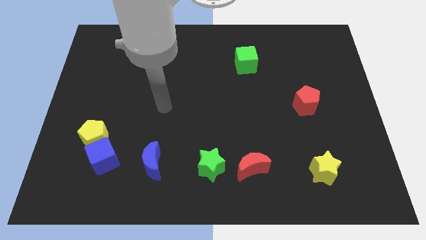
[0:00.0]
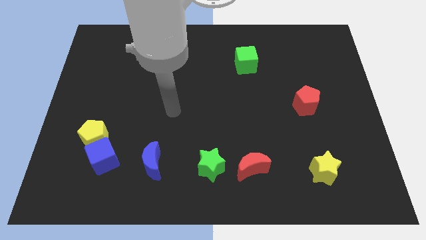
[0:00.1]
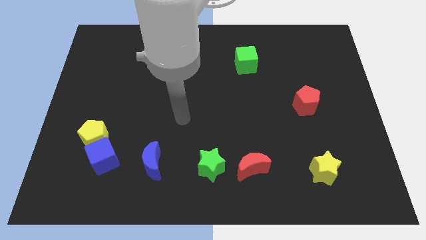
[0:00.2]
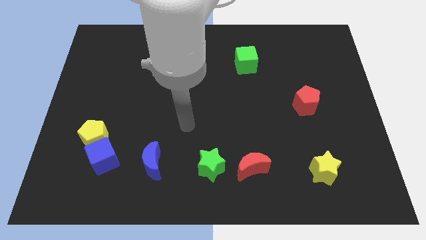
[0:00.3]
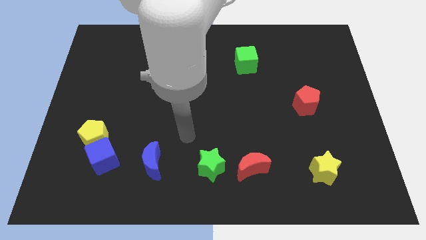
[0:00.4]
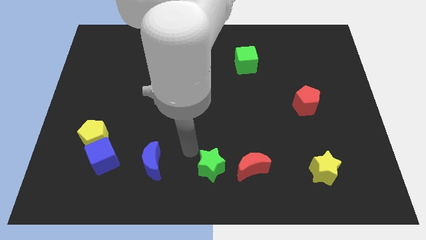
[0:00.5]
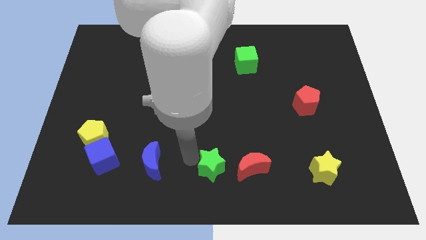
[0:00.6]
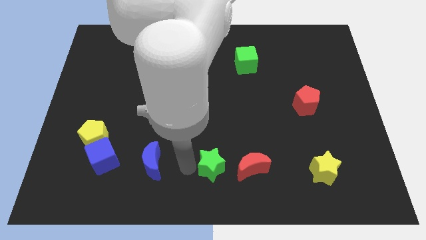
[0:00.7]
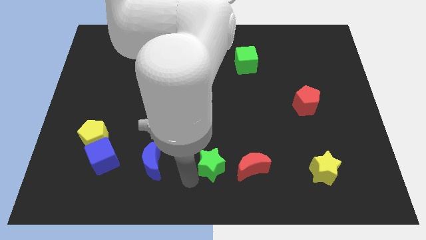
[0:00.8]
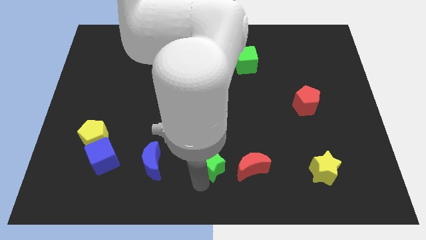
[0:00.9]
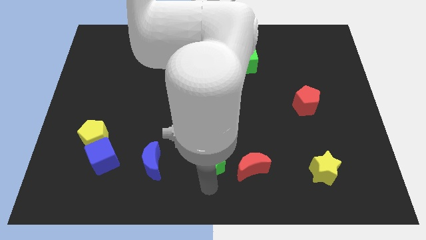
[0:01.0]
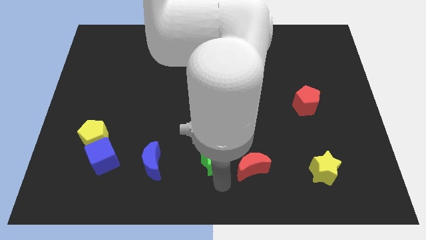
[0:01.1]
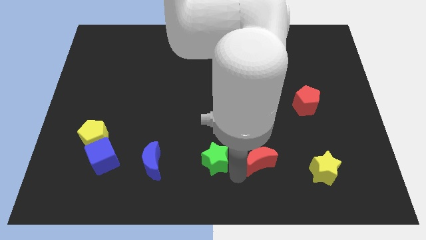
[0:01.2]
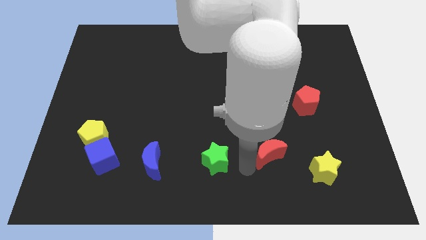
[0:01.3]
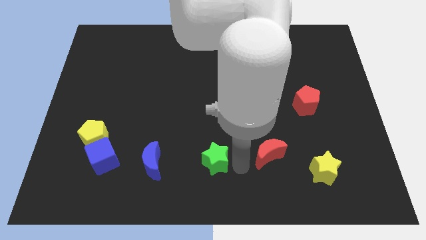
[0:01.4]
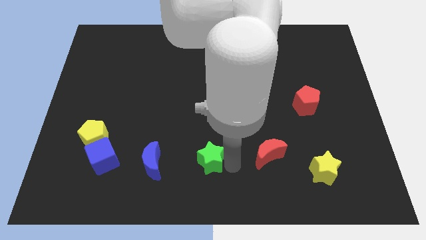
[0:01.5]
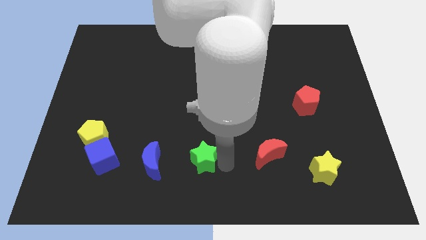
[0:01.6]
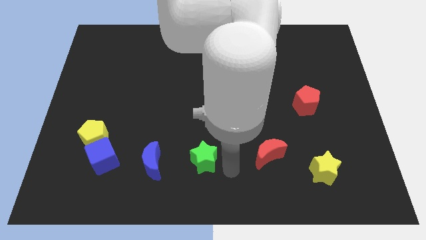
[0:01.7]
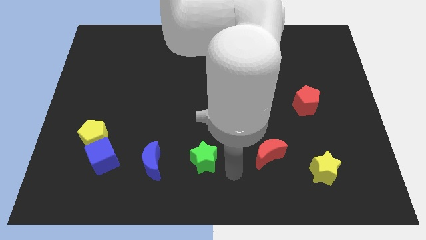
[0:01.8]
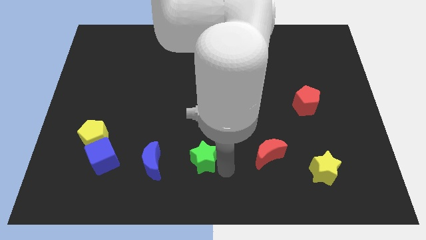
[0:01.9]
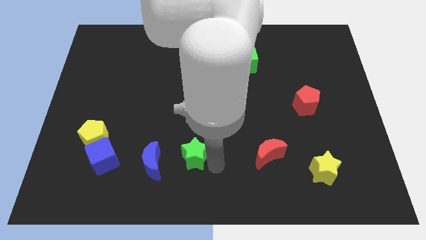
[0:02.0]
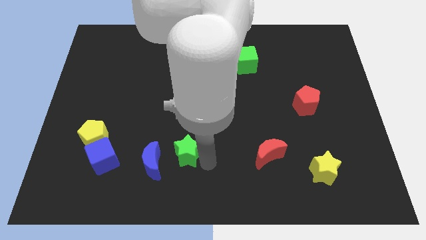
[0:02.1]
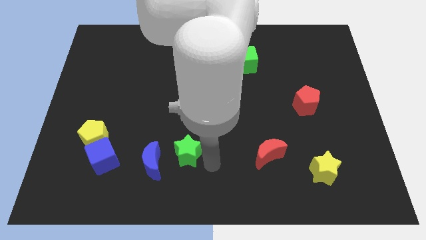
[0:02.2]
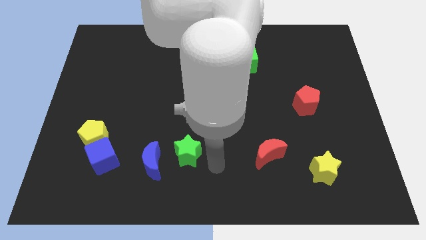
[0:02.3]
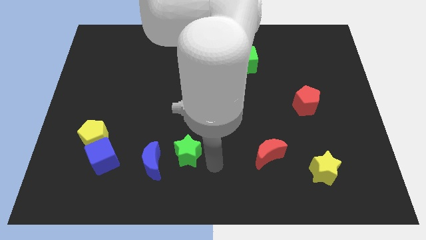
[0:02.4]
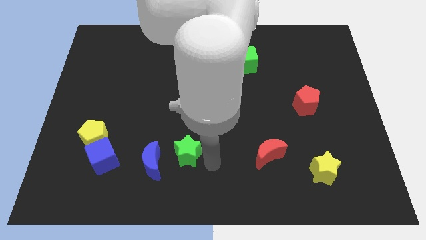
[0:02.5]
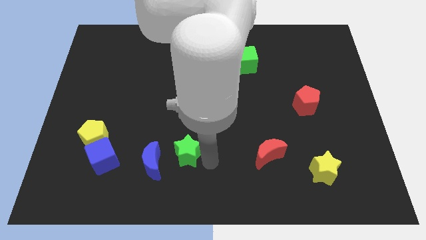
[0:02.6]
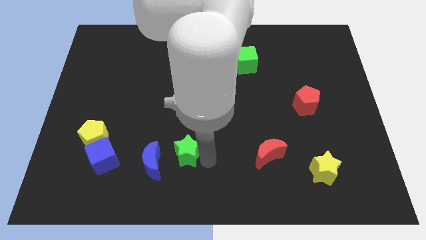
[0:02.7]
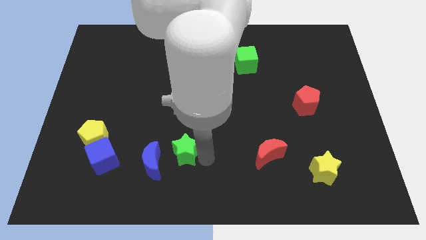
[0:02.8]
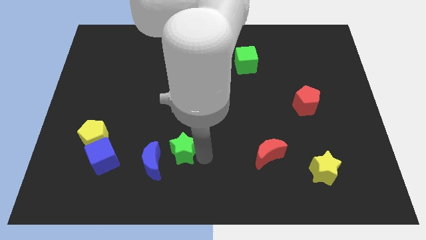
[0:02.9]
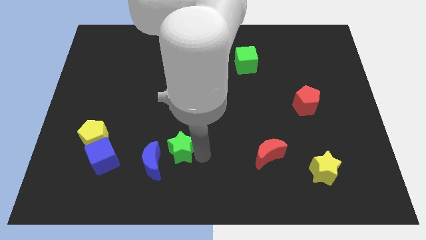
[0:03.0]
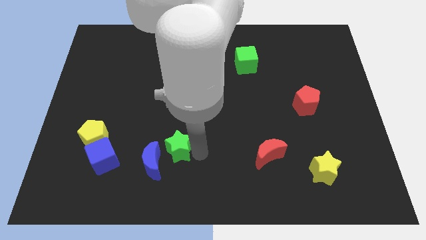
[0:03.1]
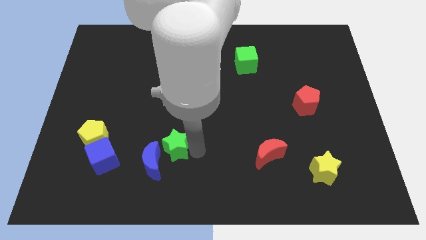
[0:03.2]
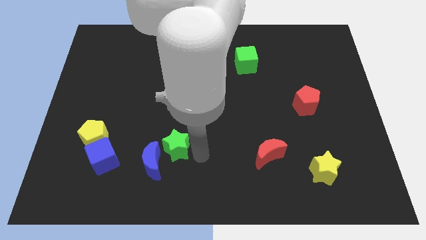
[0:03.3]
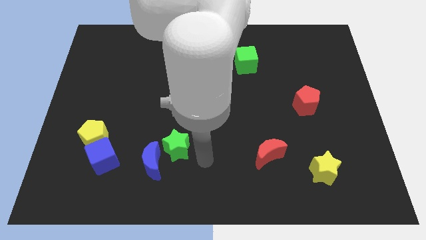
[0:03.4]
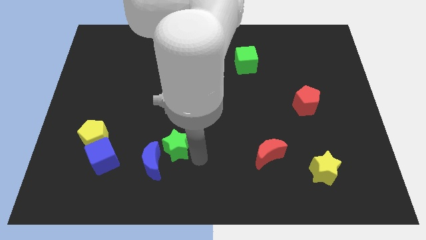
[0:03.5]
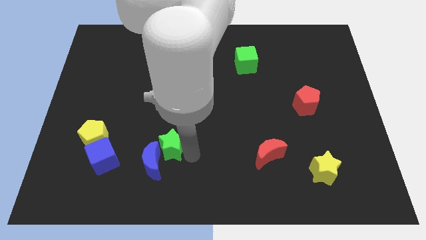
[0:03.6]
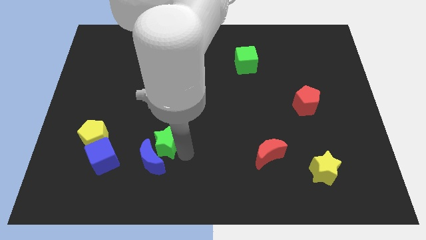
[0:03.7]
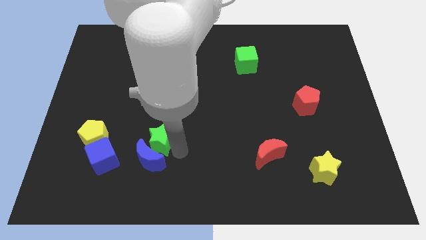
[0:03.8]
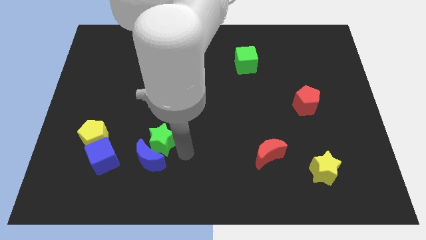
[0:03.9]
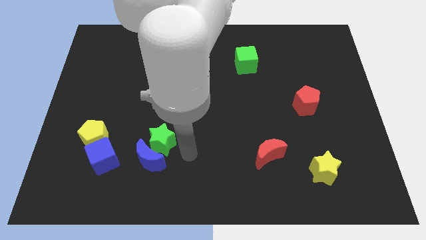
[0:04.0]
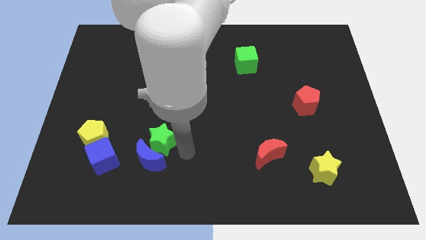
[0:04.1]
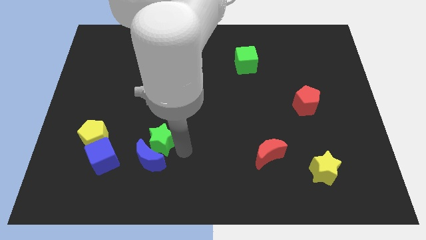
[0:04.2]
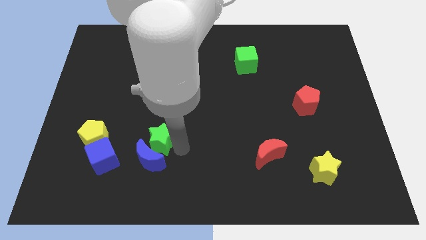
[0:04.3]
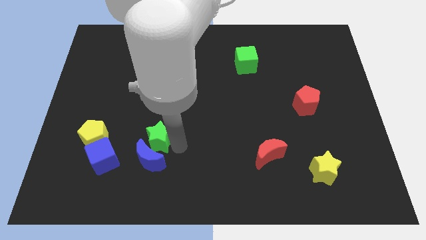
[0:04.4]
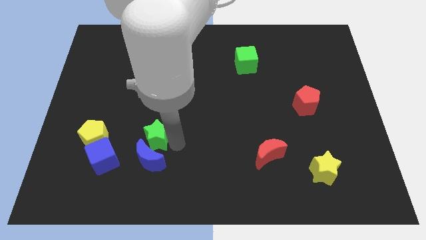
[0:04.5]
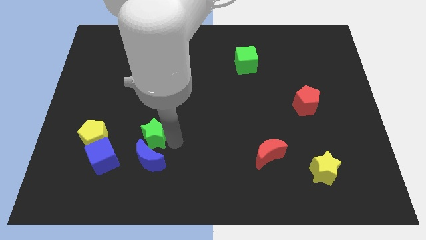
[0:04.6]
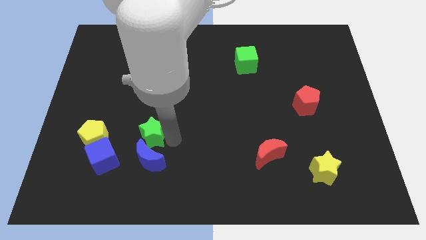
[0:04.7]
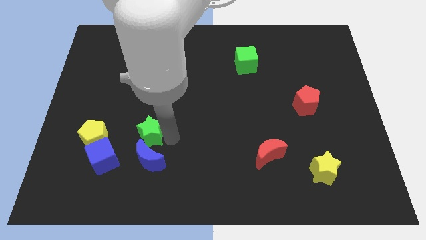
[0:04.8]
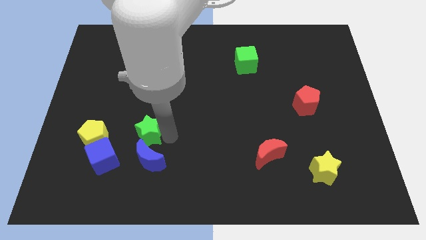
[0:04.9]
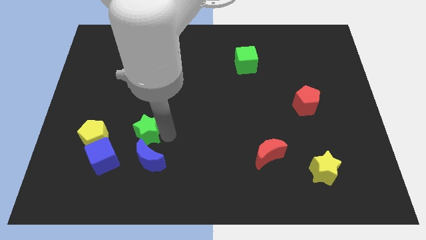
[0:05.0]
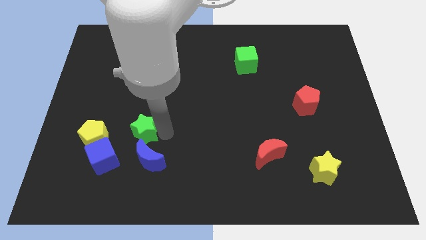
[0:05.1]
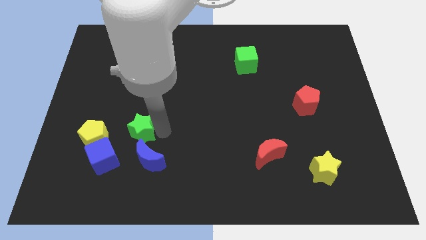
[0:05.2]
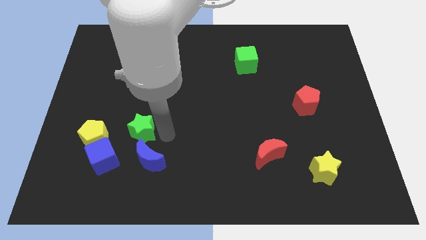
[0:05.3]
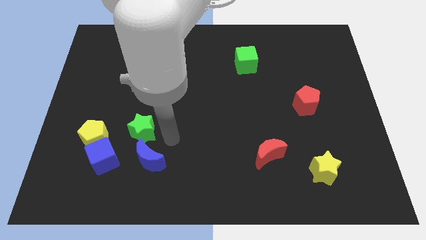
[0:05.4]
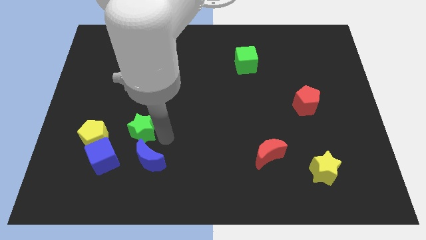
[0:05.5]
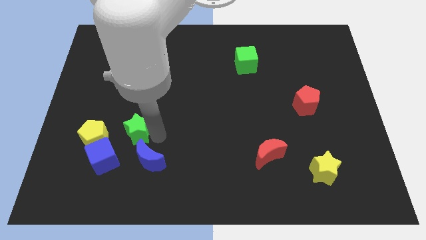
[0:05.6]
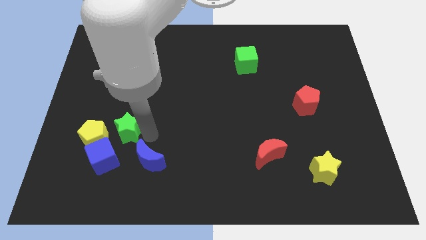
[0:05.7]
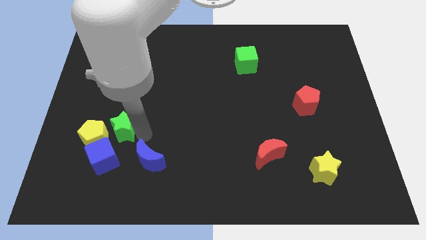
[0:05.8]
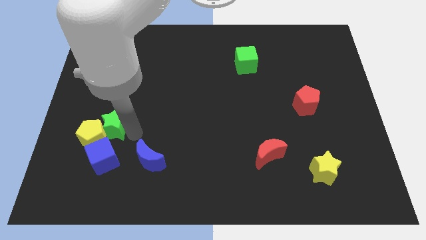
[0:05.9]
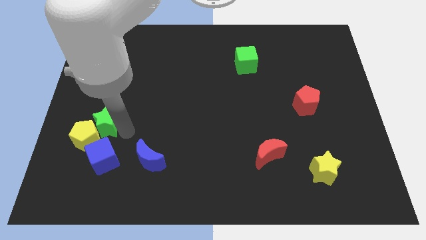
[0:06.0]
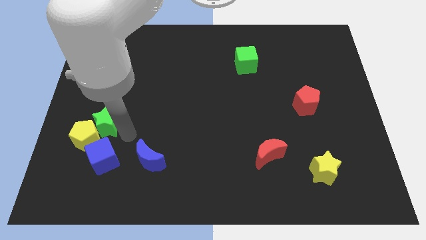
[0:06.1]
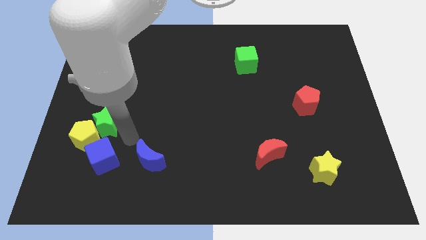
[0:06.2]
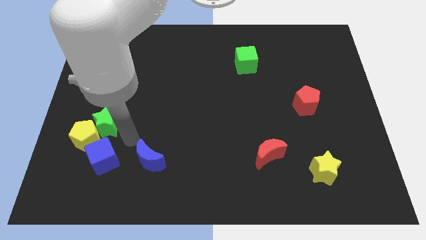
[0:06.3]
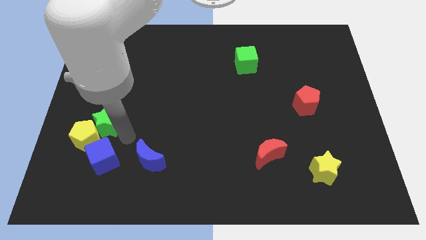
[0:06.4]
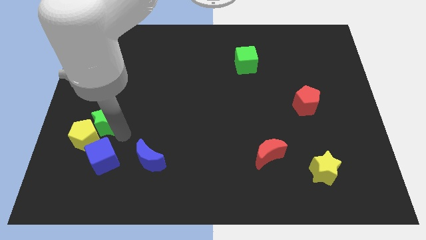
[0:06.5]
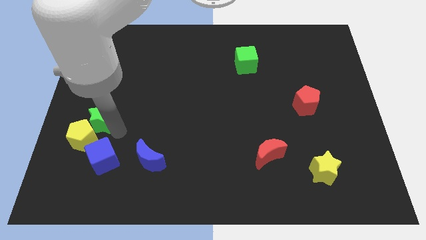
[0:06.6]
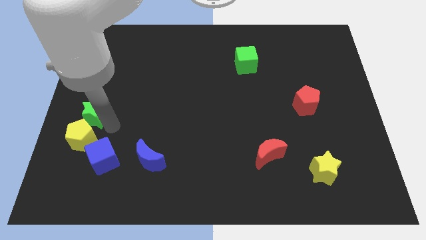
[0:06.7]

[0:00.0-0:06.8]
slide the green star to the center left
